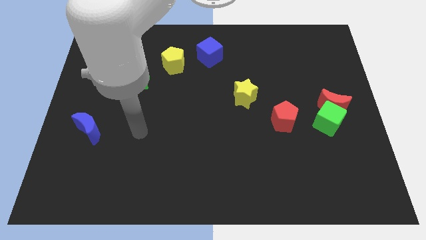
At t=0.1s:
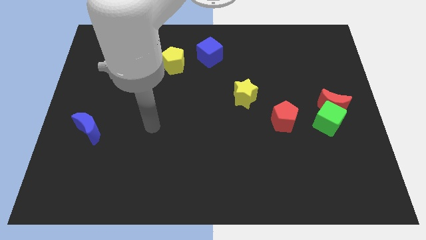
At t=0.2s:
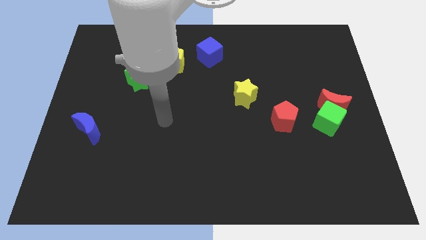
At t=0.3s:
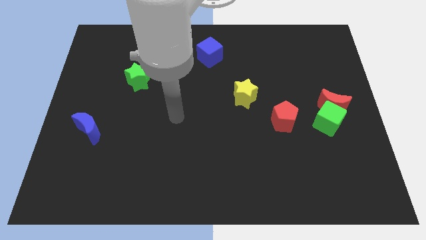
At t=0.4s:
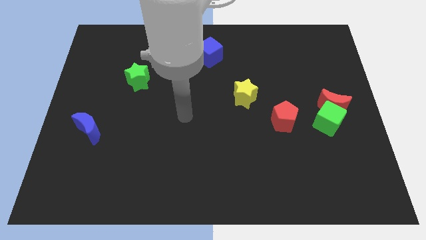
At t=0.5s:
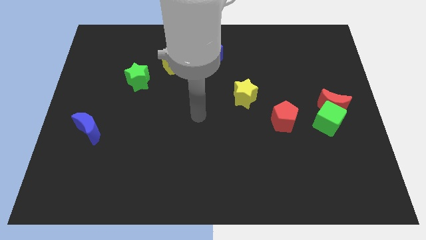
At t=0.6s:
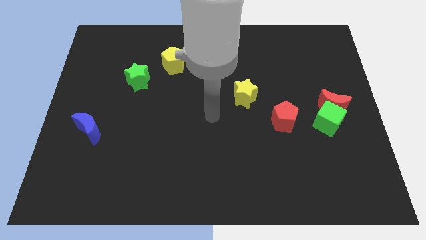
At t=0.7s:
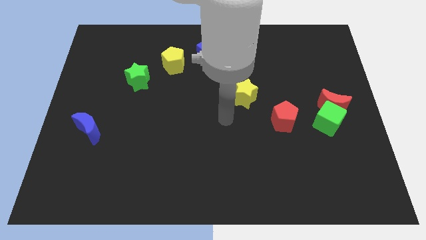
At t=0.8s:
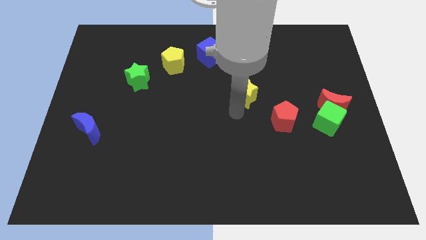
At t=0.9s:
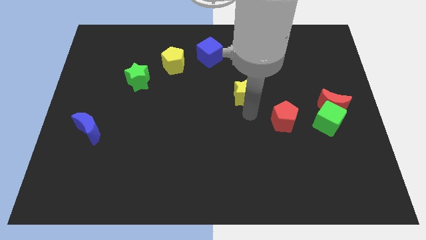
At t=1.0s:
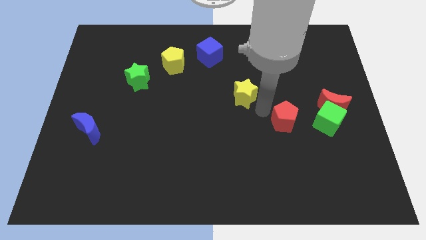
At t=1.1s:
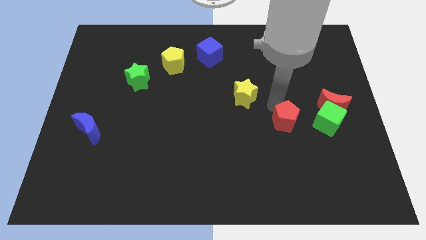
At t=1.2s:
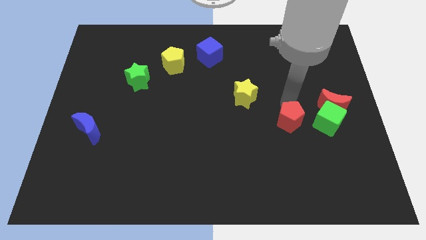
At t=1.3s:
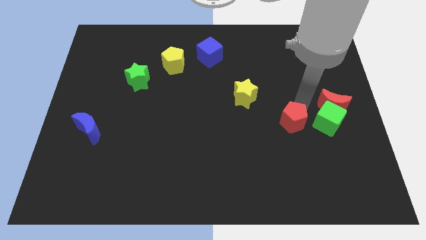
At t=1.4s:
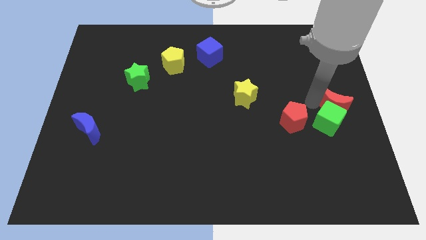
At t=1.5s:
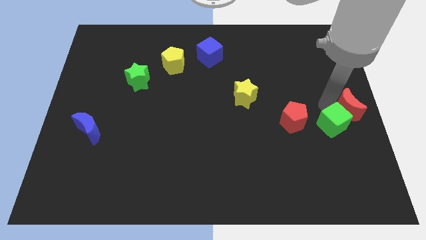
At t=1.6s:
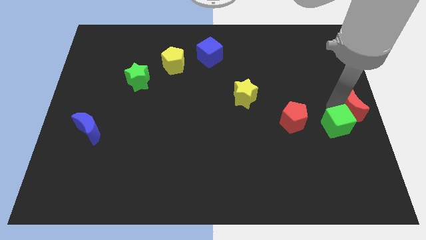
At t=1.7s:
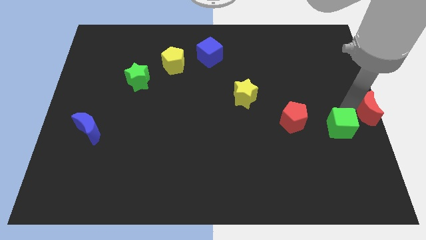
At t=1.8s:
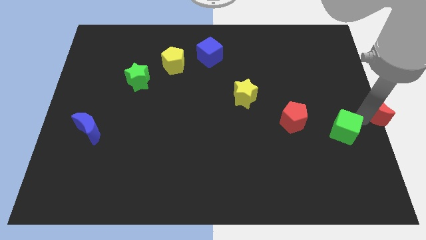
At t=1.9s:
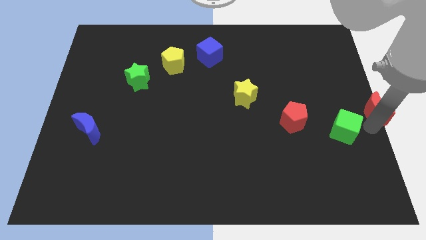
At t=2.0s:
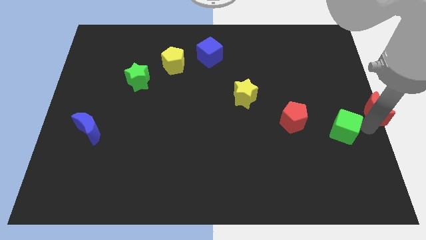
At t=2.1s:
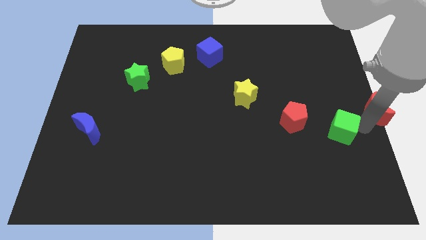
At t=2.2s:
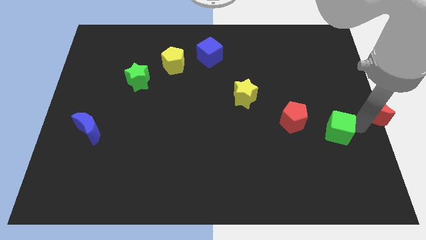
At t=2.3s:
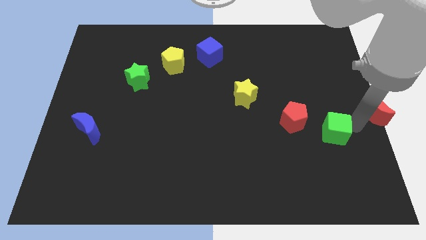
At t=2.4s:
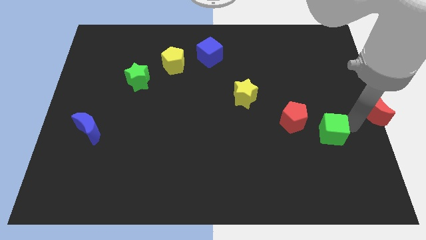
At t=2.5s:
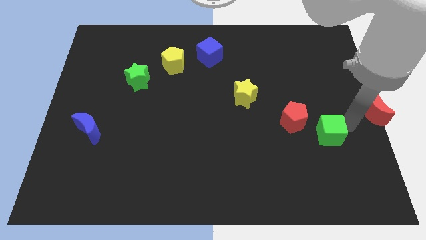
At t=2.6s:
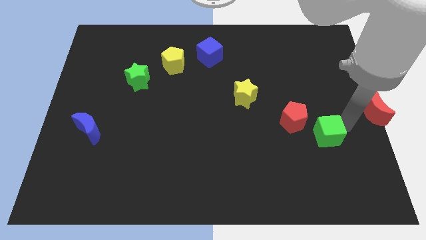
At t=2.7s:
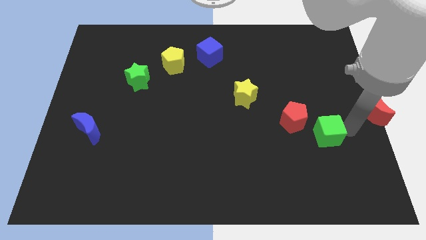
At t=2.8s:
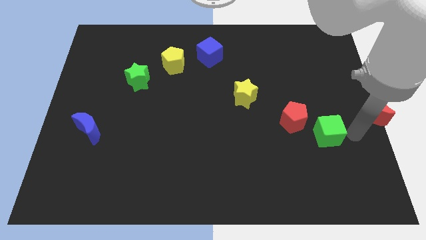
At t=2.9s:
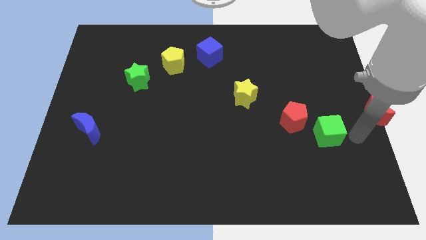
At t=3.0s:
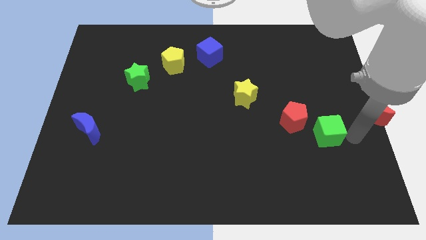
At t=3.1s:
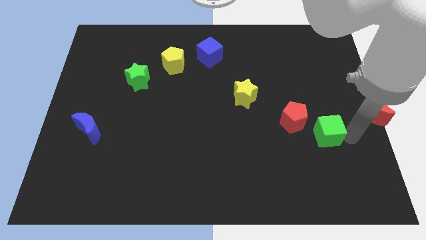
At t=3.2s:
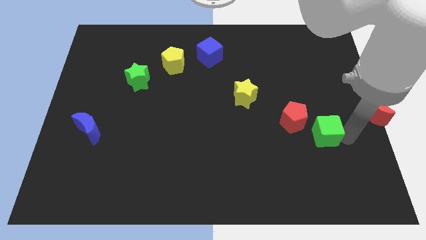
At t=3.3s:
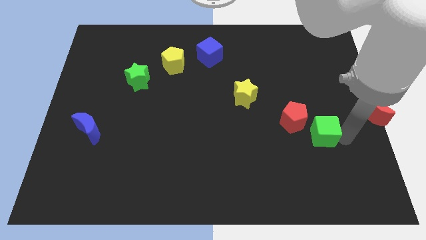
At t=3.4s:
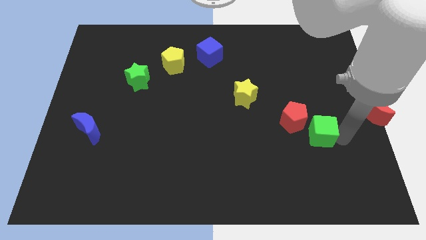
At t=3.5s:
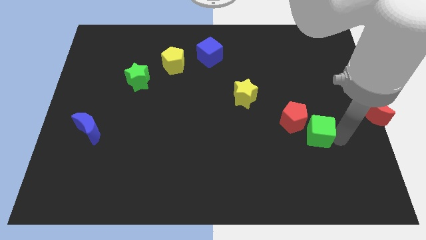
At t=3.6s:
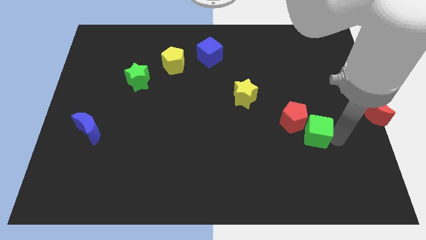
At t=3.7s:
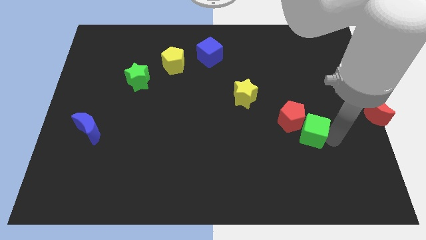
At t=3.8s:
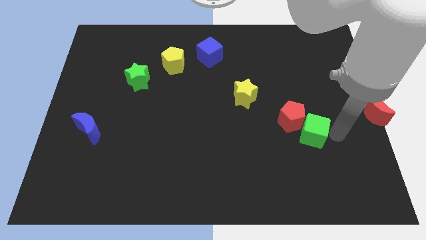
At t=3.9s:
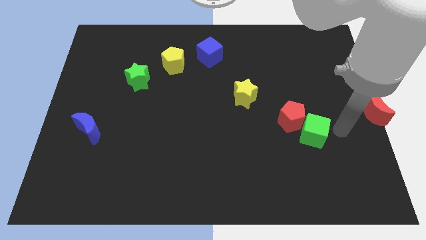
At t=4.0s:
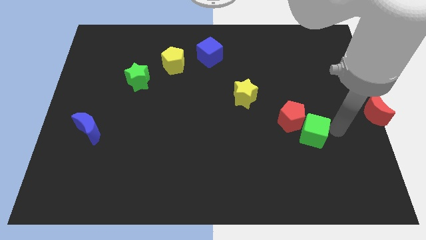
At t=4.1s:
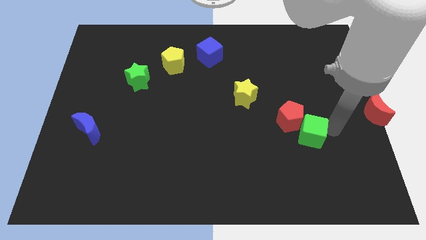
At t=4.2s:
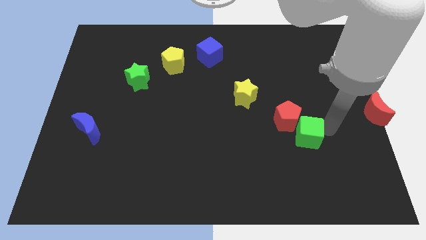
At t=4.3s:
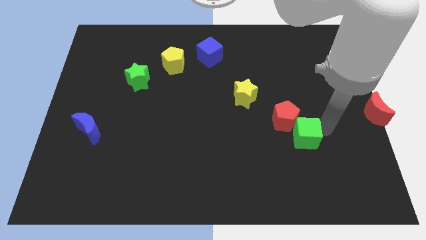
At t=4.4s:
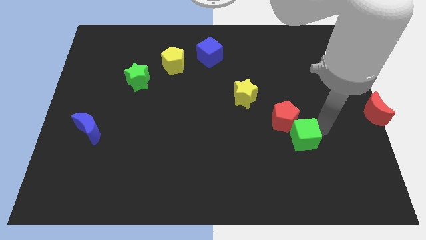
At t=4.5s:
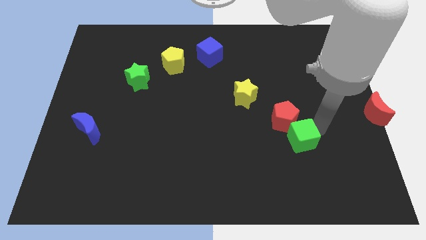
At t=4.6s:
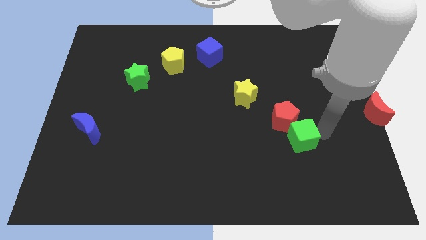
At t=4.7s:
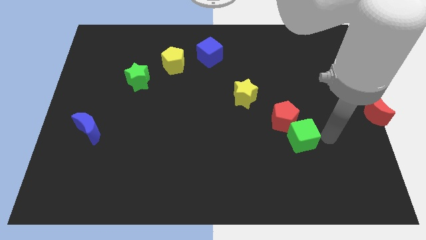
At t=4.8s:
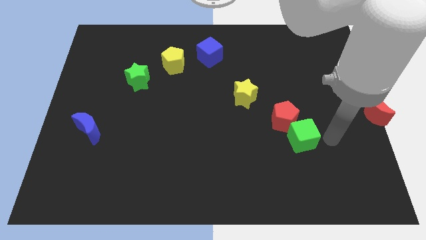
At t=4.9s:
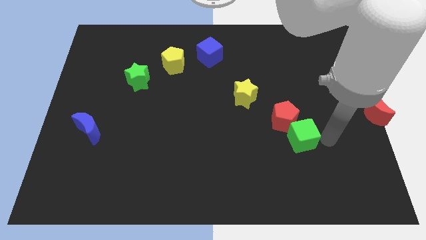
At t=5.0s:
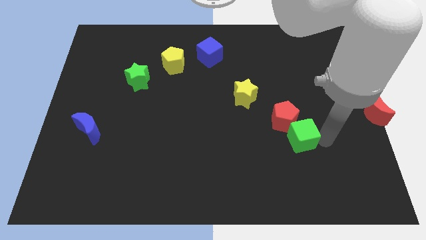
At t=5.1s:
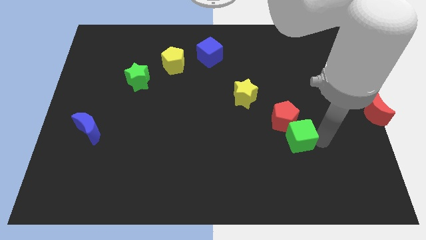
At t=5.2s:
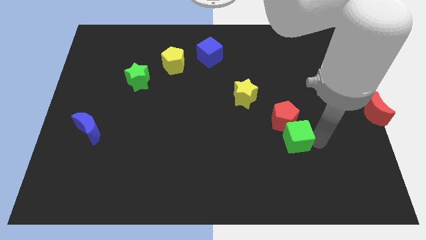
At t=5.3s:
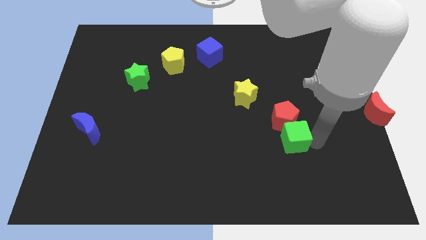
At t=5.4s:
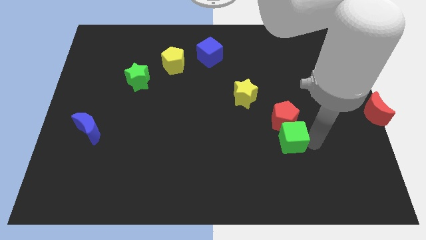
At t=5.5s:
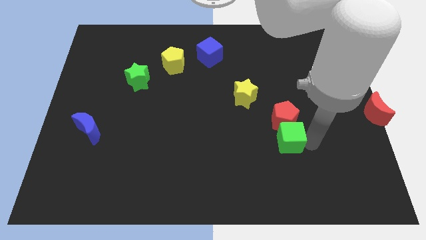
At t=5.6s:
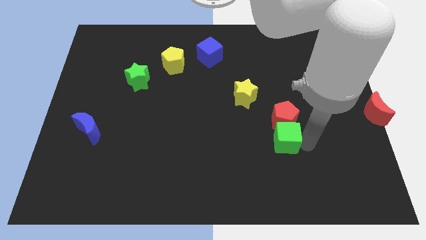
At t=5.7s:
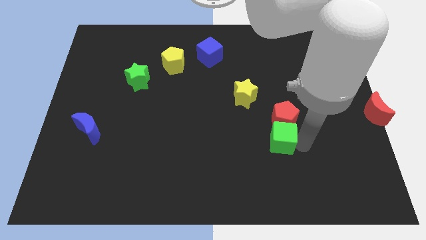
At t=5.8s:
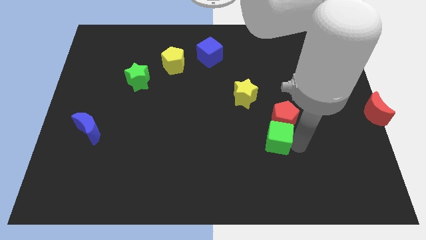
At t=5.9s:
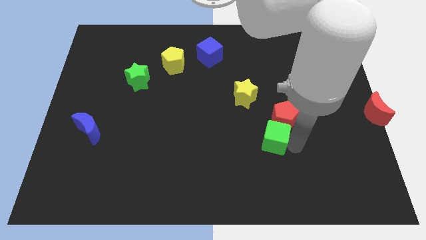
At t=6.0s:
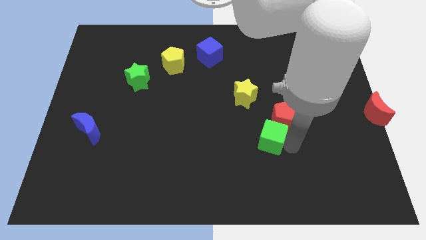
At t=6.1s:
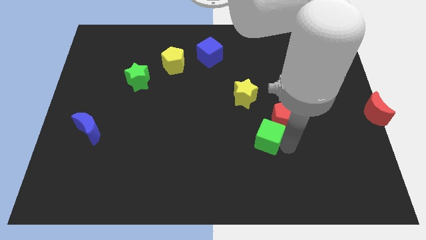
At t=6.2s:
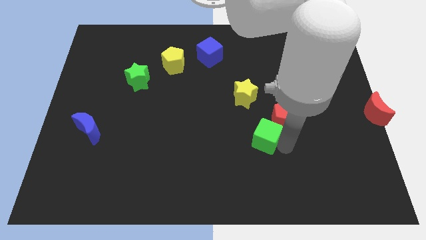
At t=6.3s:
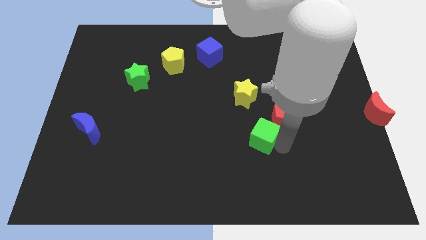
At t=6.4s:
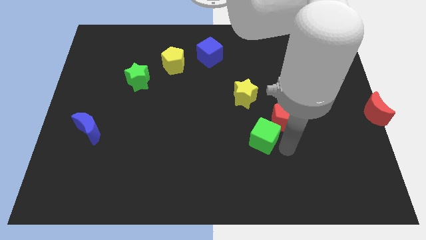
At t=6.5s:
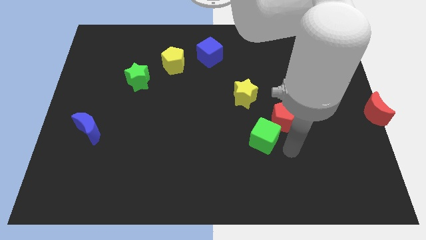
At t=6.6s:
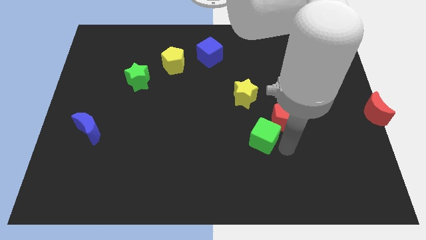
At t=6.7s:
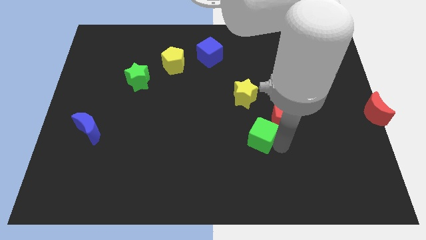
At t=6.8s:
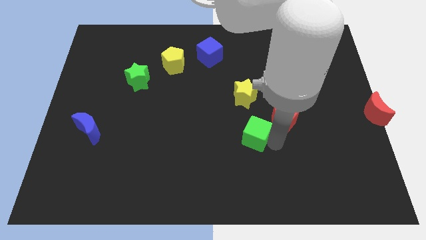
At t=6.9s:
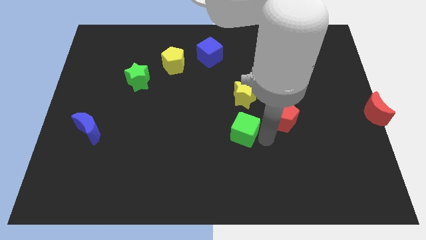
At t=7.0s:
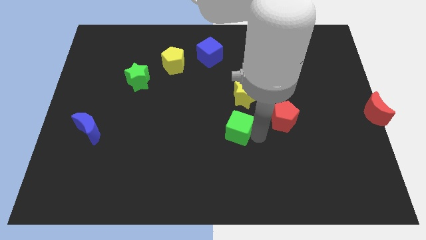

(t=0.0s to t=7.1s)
move the green cube left

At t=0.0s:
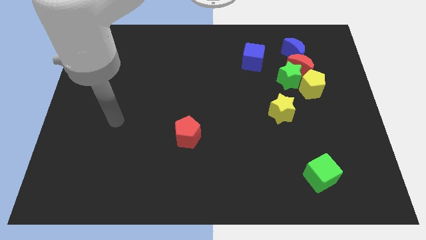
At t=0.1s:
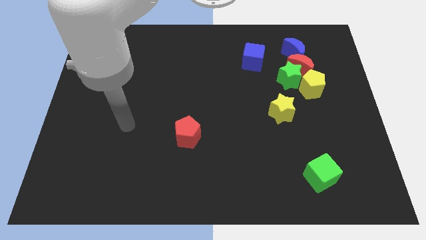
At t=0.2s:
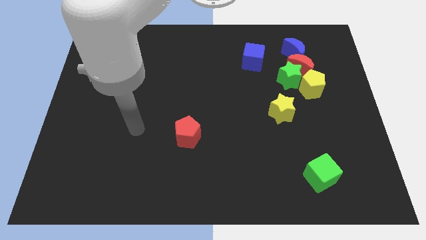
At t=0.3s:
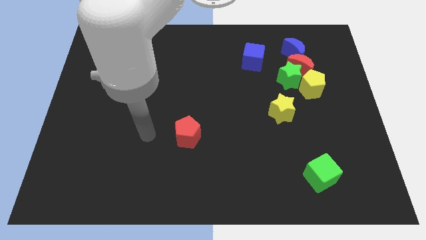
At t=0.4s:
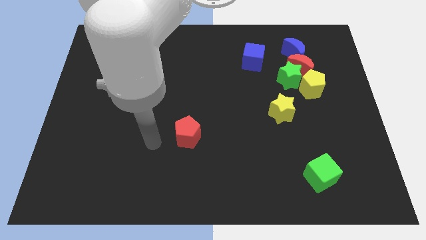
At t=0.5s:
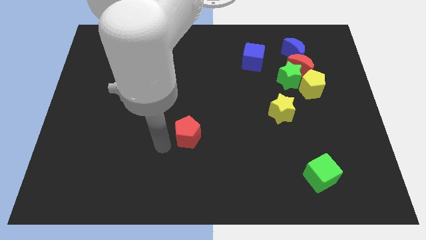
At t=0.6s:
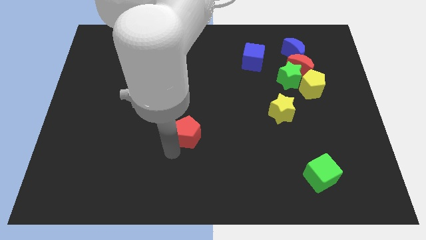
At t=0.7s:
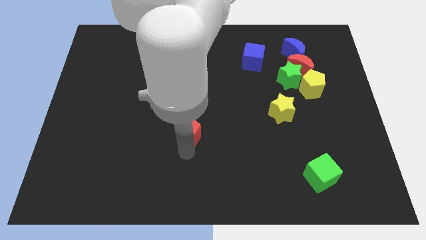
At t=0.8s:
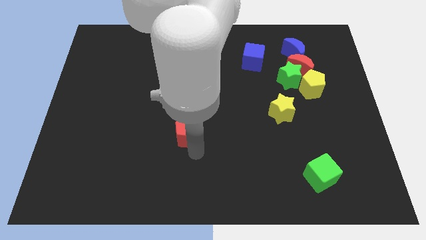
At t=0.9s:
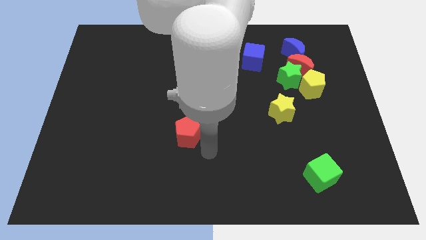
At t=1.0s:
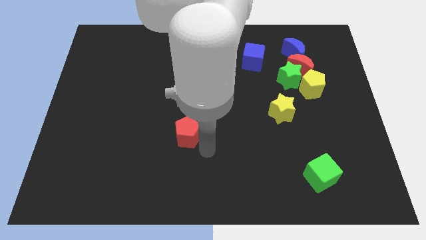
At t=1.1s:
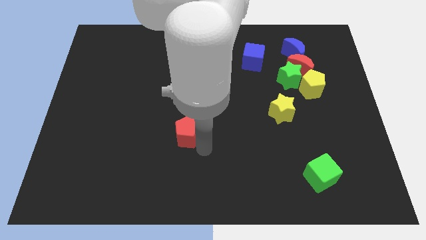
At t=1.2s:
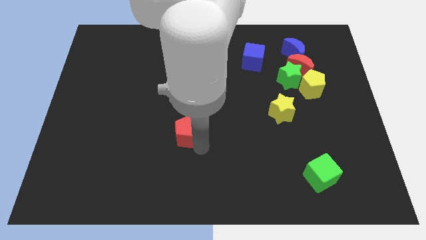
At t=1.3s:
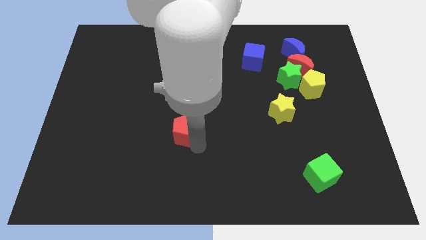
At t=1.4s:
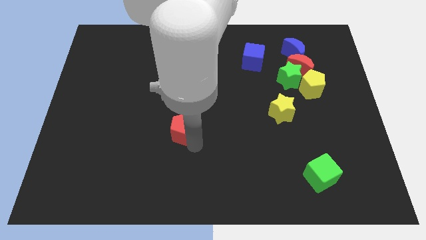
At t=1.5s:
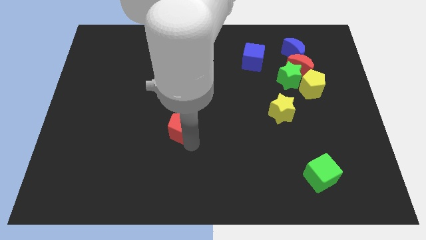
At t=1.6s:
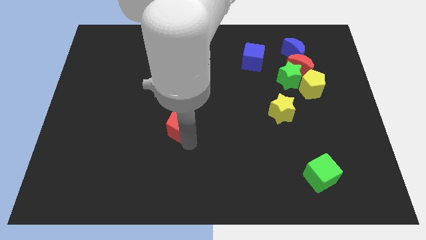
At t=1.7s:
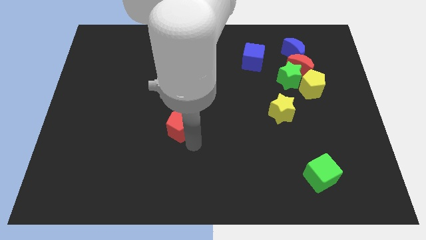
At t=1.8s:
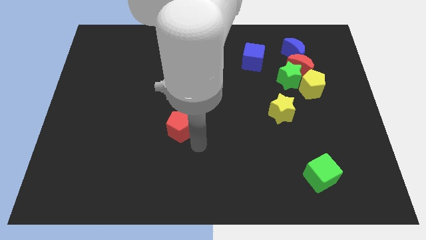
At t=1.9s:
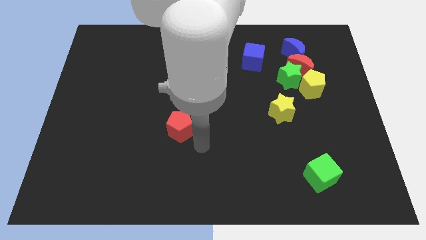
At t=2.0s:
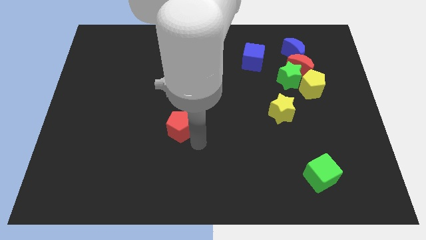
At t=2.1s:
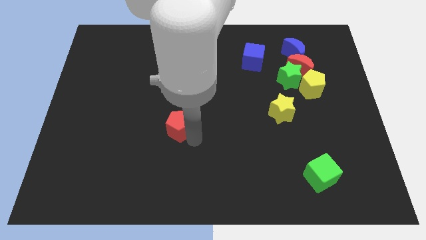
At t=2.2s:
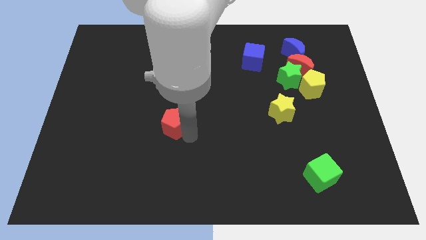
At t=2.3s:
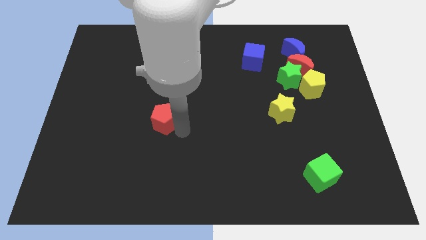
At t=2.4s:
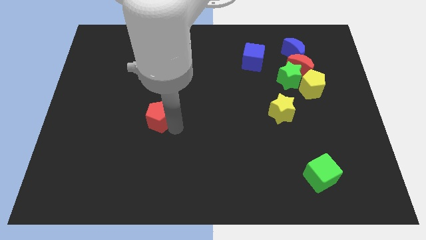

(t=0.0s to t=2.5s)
slide the red pentagon slightly up and to the left
